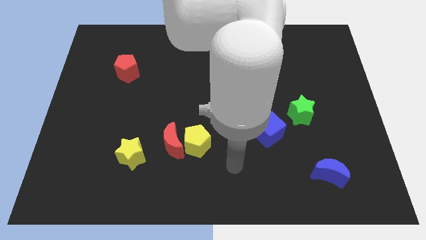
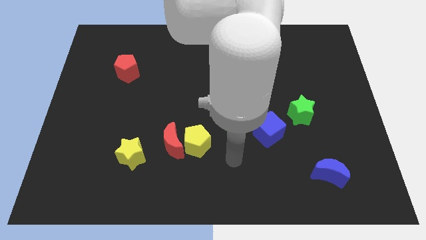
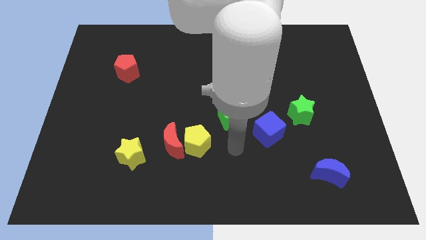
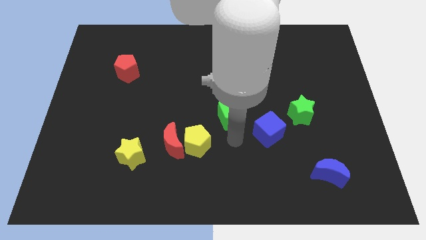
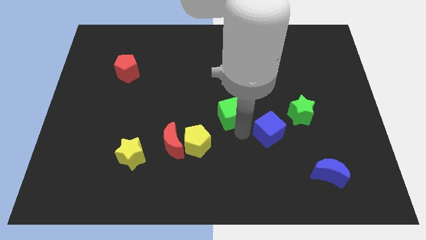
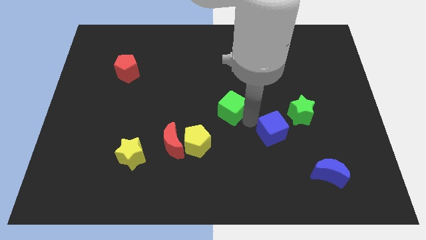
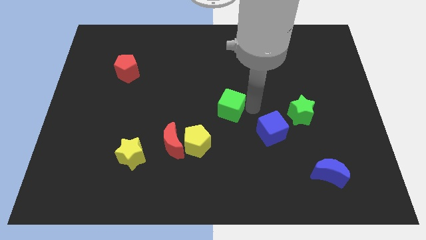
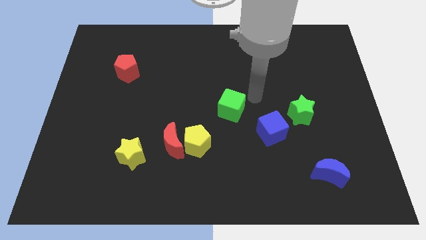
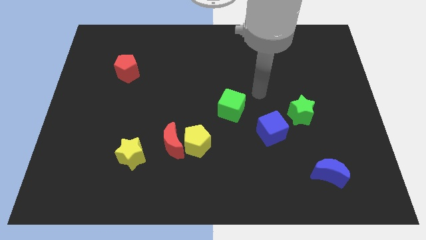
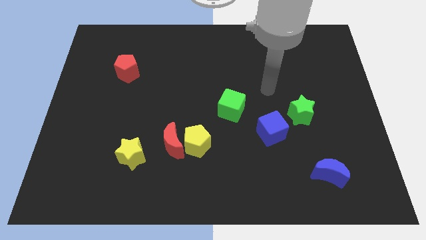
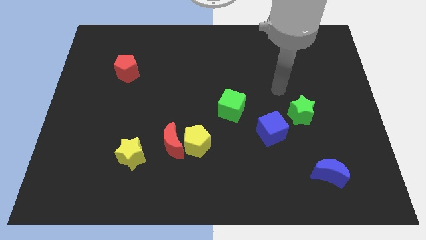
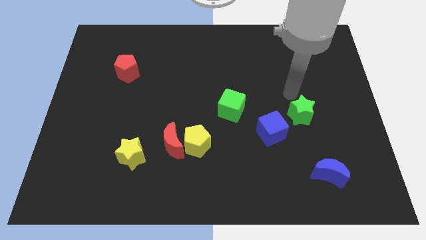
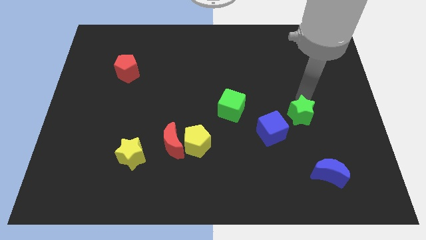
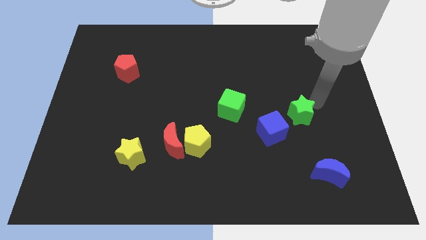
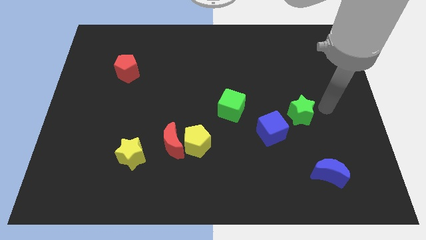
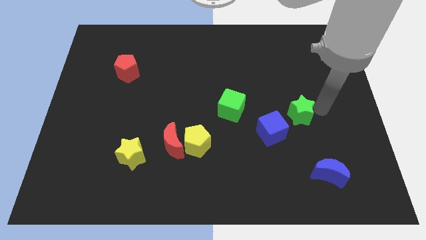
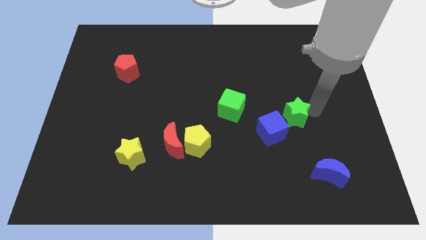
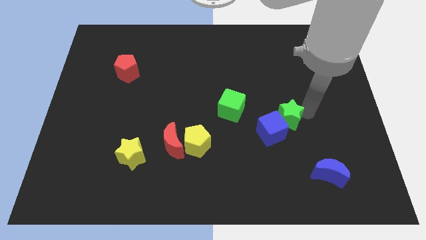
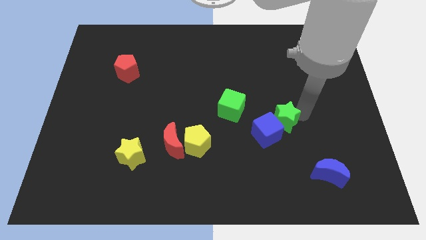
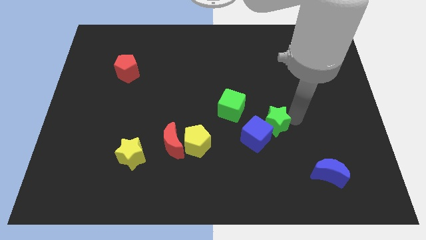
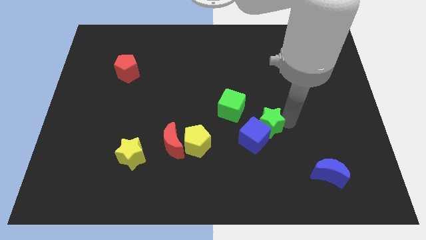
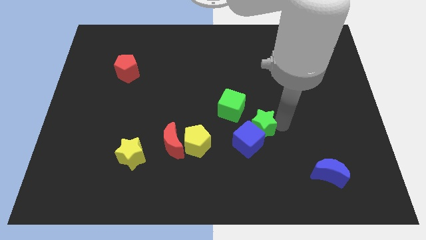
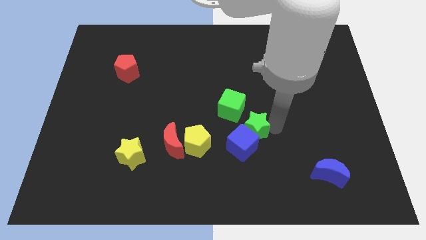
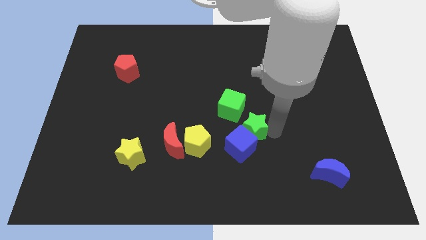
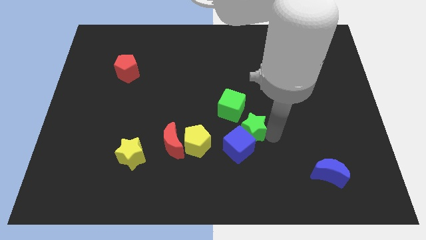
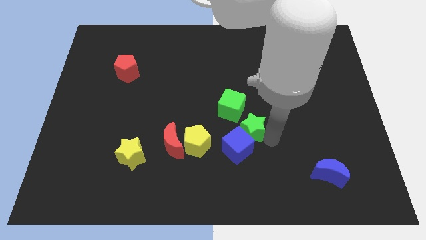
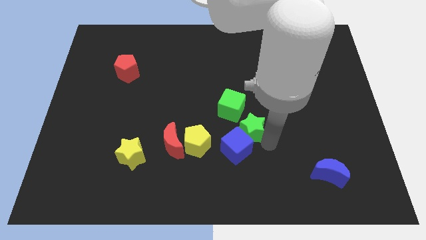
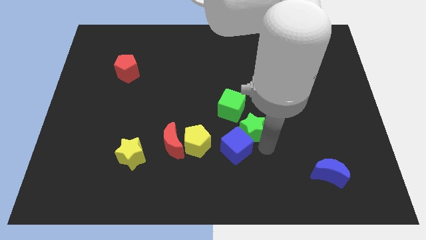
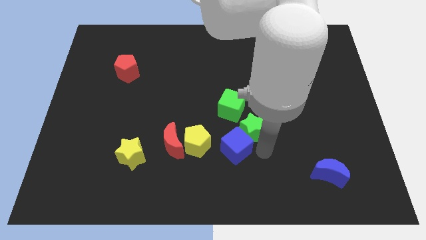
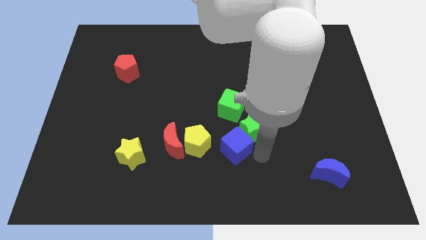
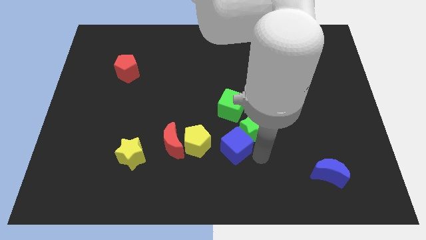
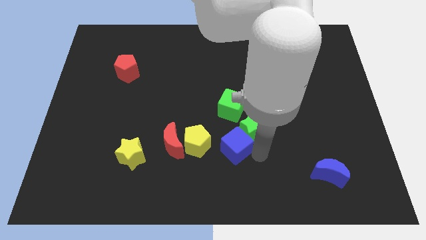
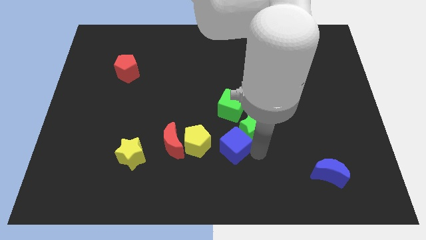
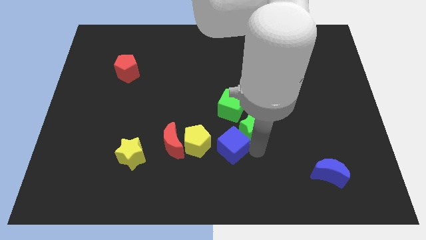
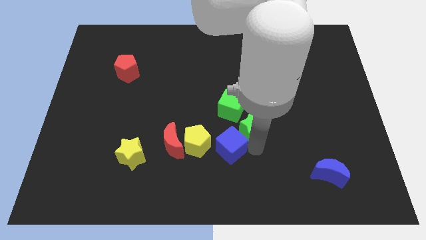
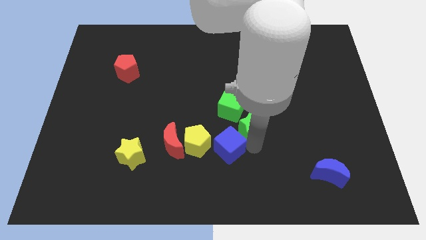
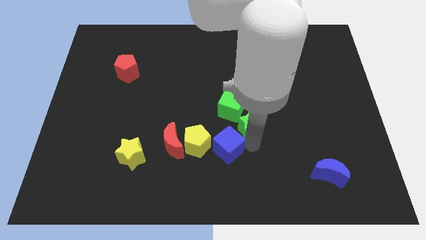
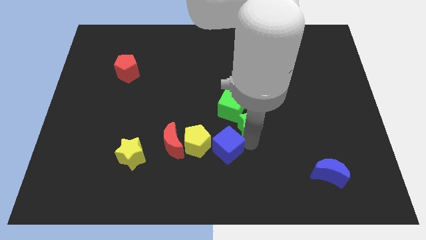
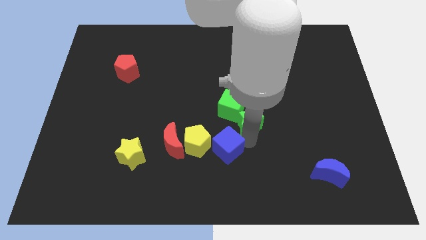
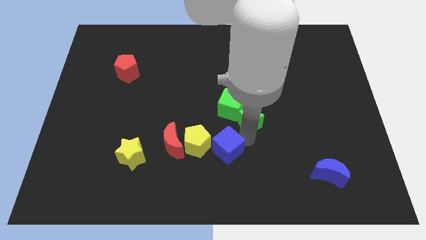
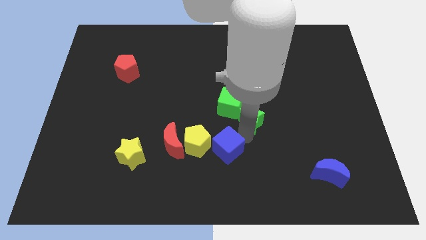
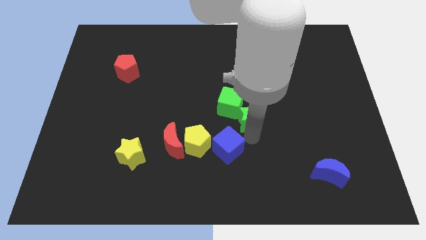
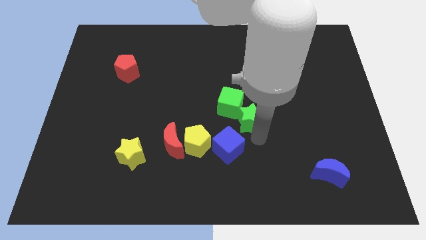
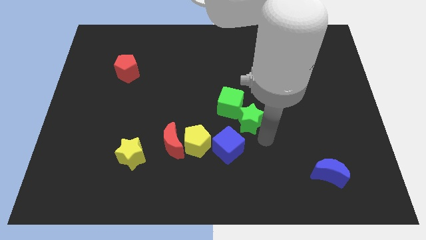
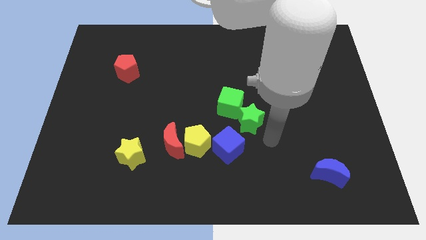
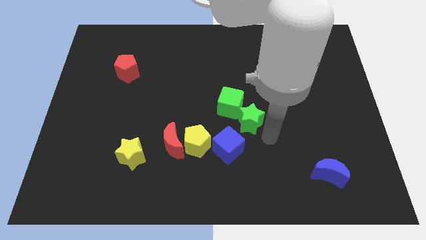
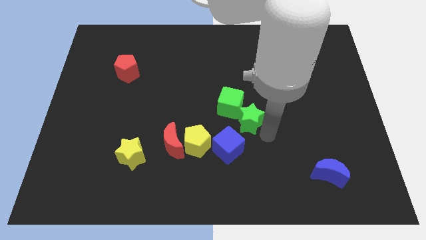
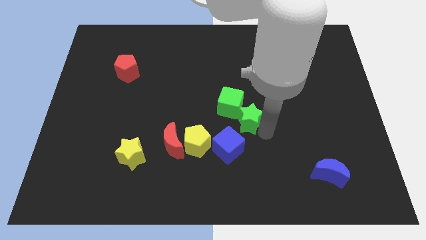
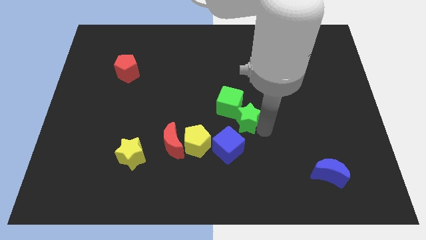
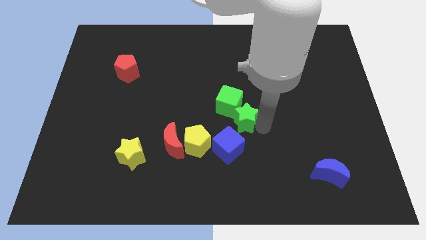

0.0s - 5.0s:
put the green star close to the green cube

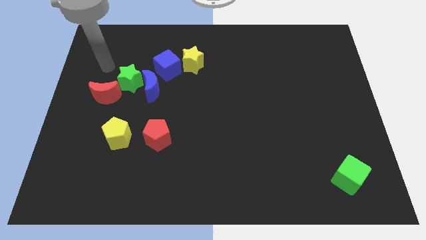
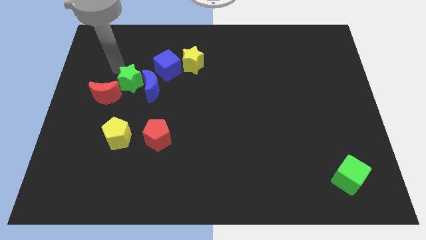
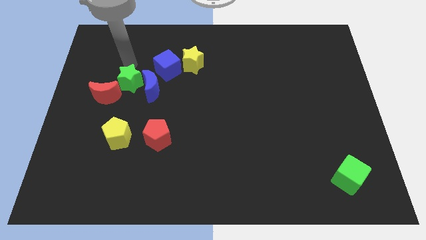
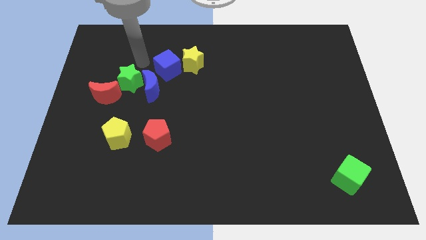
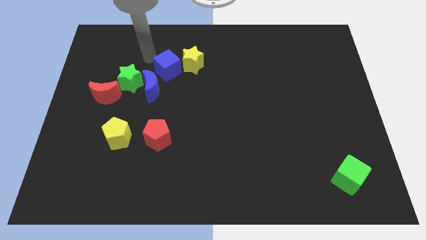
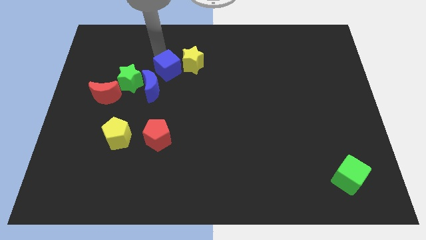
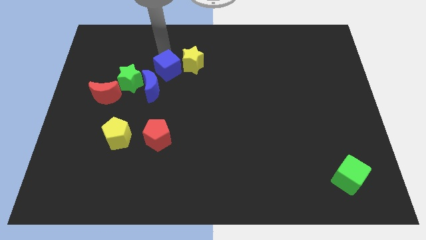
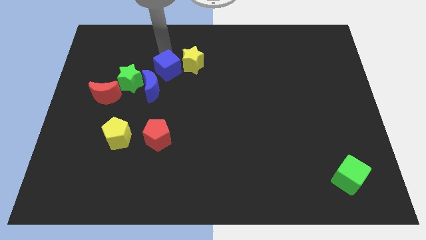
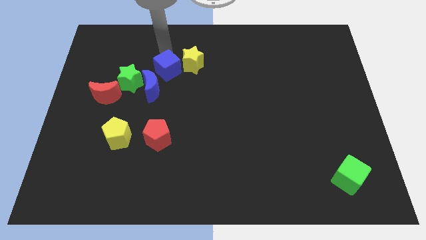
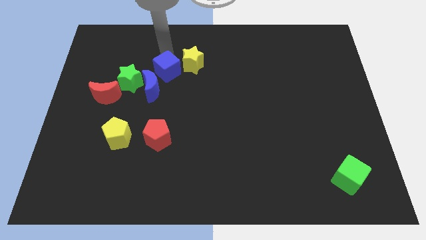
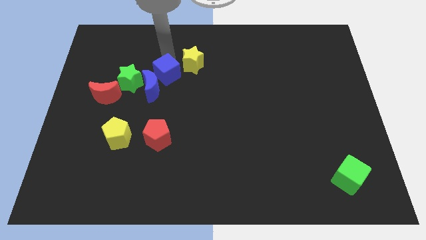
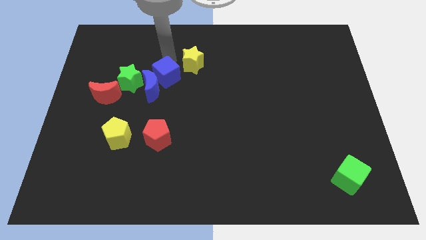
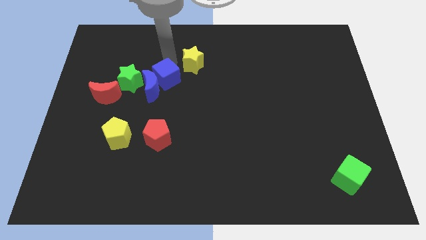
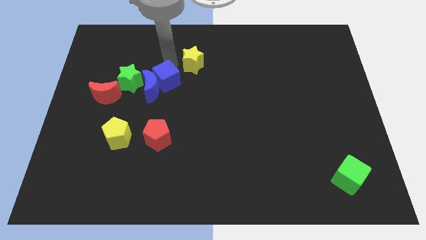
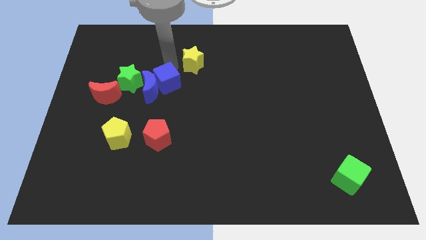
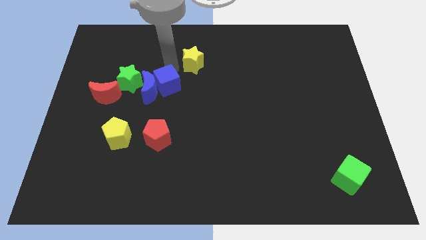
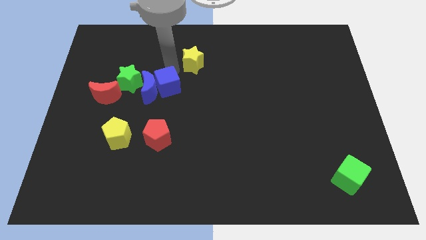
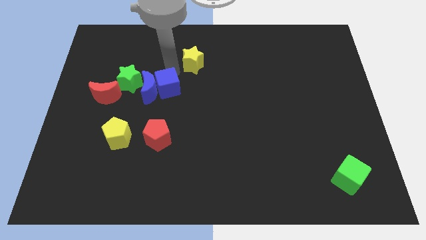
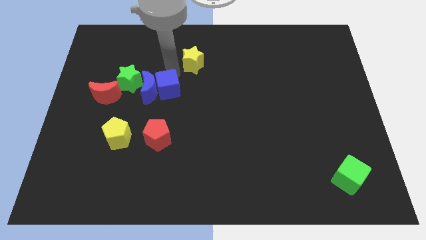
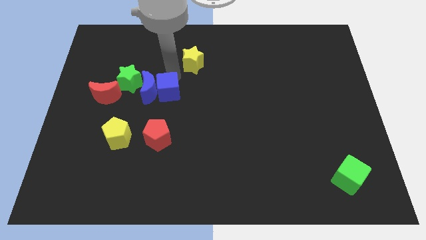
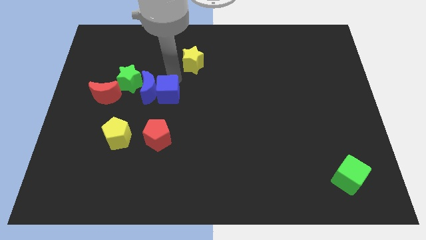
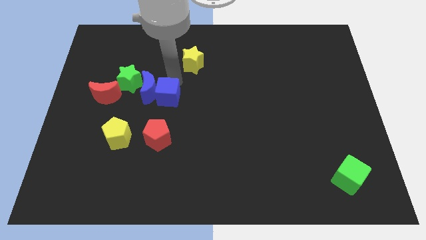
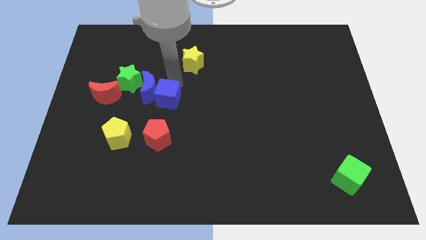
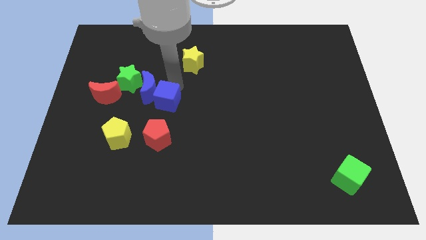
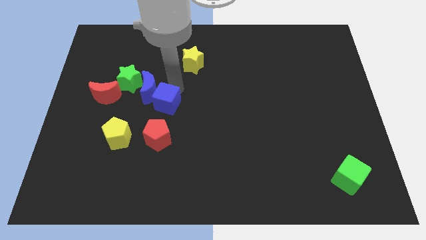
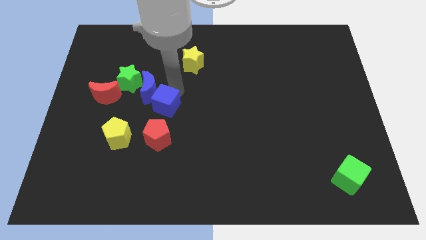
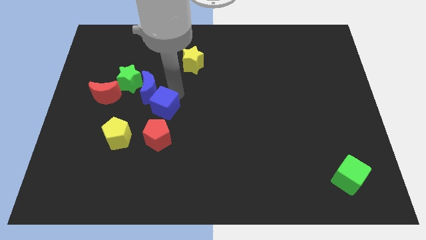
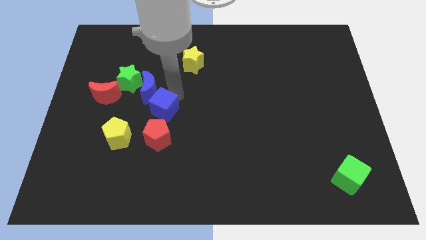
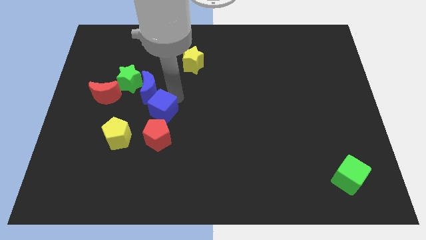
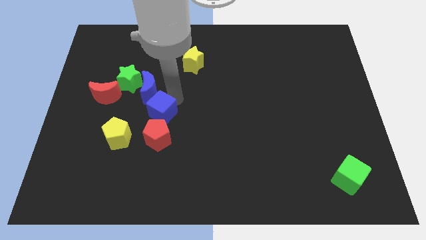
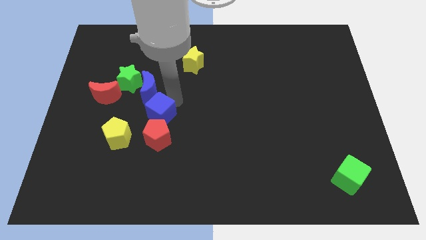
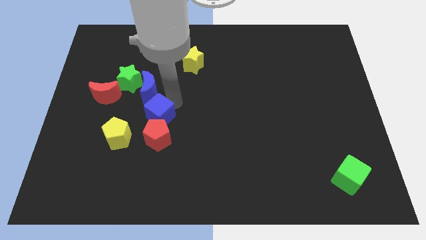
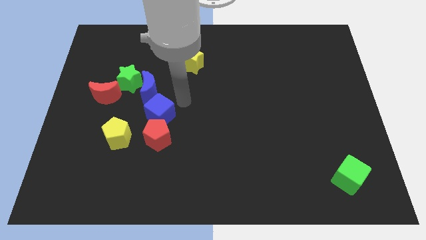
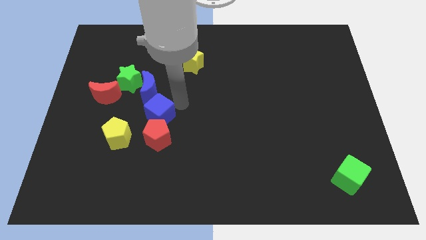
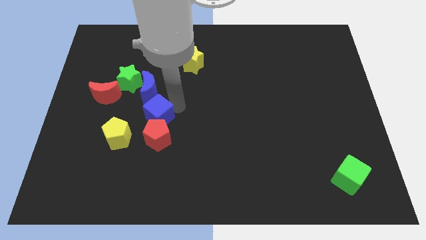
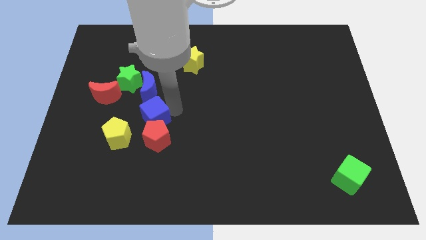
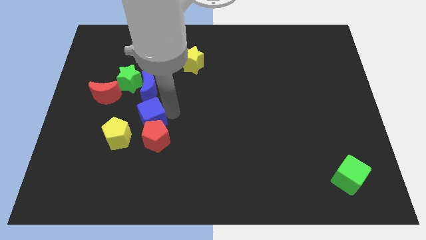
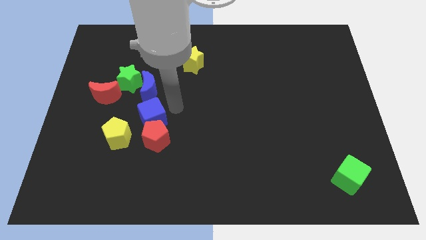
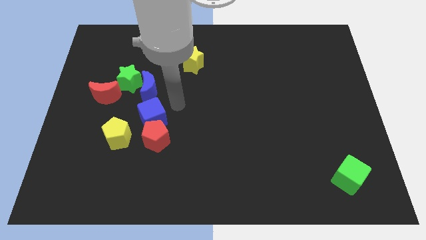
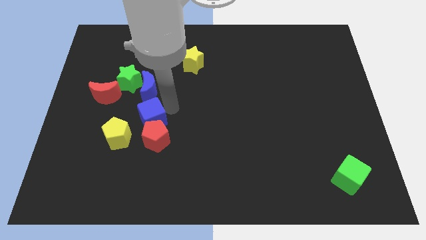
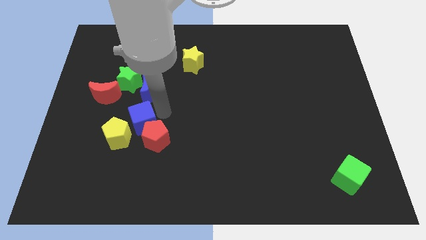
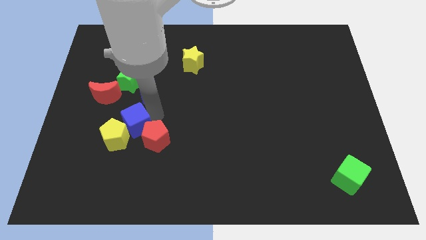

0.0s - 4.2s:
slide the blue cube towards the yellow pentagon
